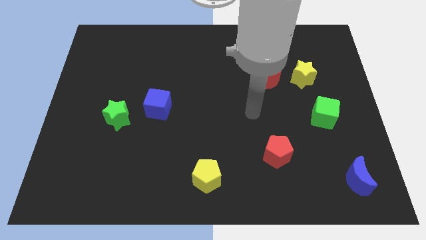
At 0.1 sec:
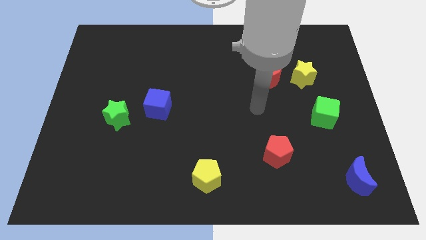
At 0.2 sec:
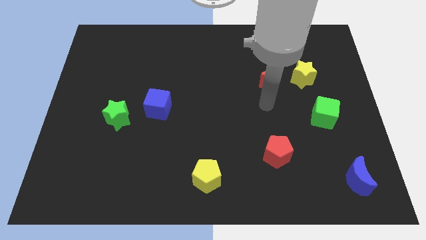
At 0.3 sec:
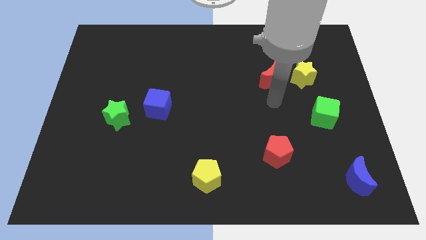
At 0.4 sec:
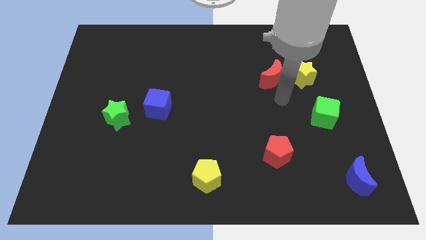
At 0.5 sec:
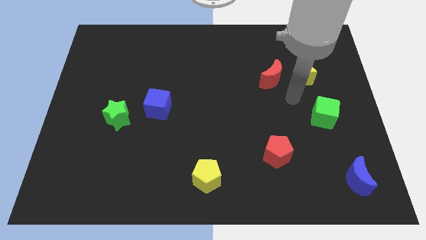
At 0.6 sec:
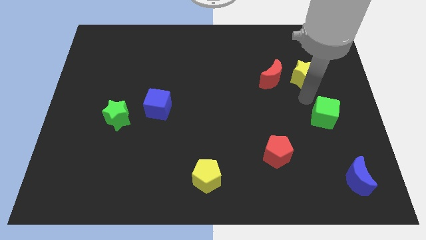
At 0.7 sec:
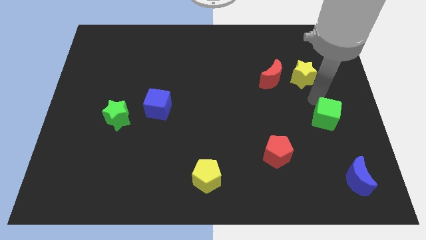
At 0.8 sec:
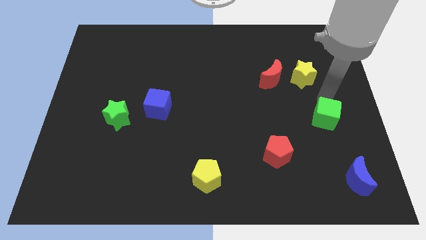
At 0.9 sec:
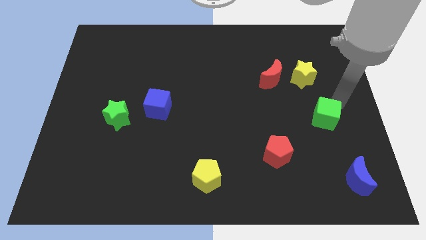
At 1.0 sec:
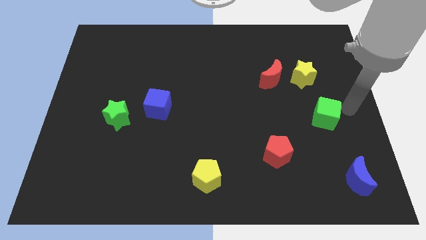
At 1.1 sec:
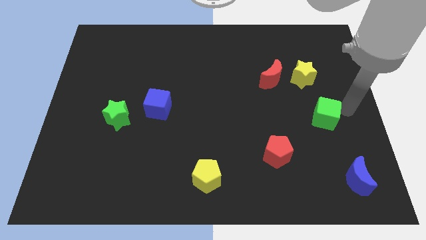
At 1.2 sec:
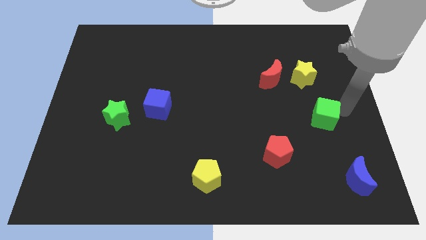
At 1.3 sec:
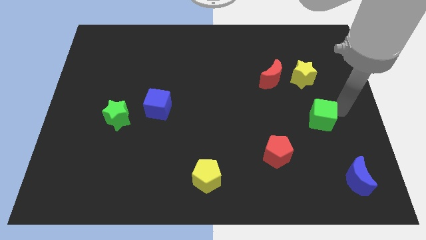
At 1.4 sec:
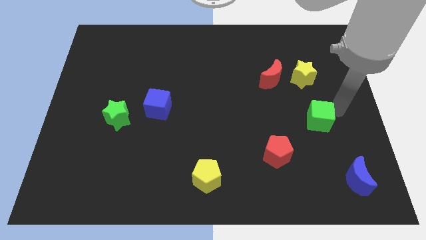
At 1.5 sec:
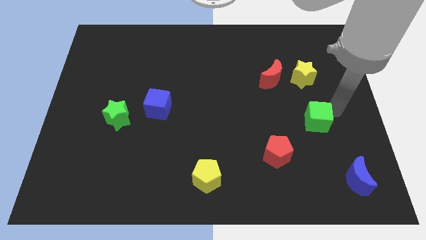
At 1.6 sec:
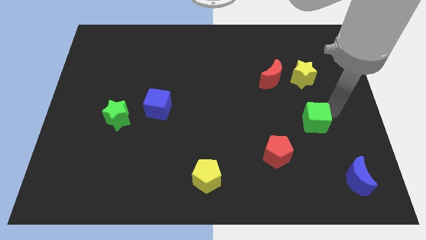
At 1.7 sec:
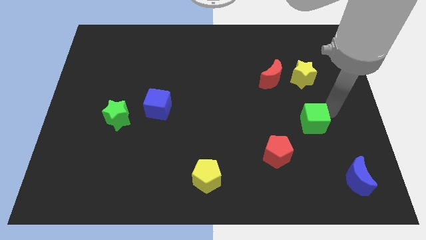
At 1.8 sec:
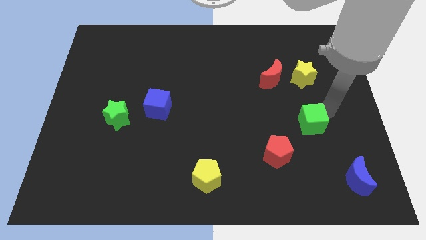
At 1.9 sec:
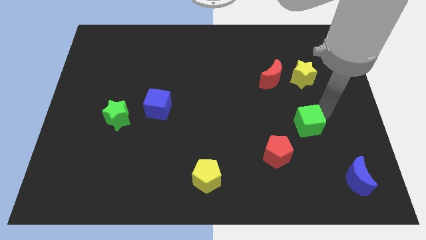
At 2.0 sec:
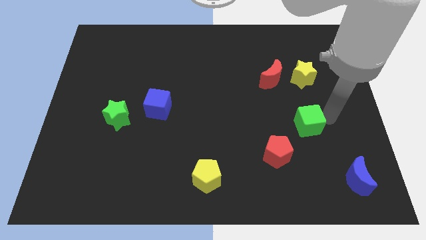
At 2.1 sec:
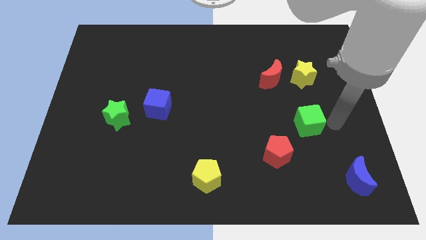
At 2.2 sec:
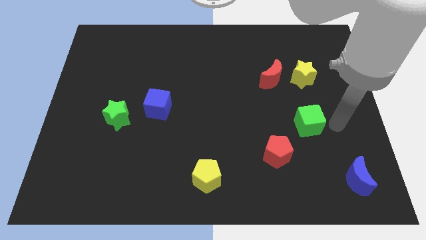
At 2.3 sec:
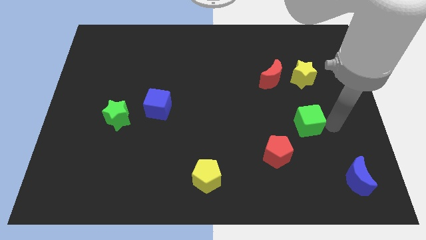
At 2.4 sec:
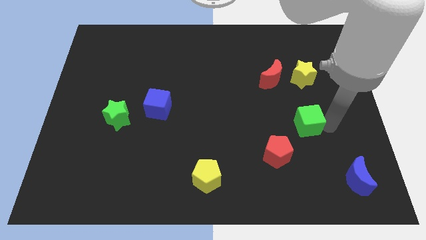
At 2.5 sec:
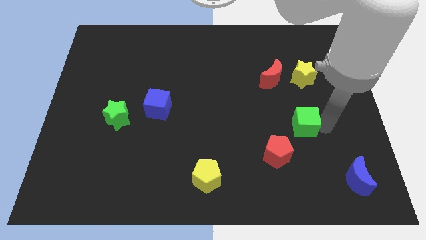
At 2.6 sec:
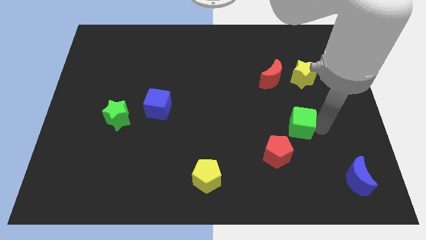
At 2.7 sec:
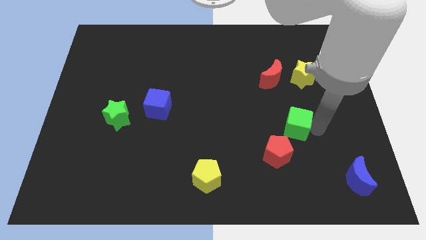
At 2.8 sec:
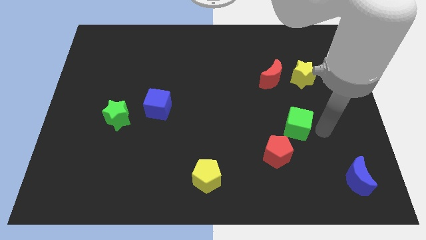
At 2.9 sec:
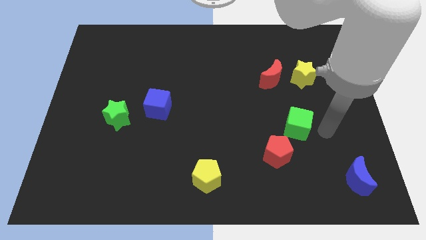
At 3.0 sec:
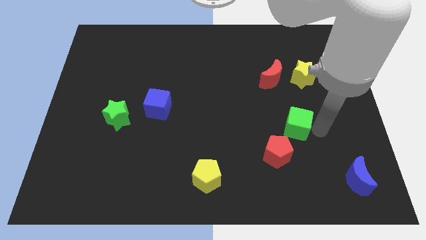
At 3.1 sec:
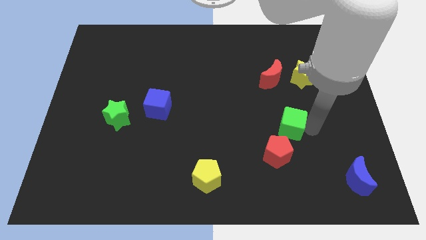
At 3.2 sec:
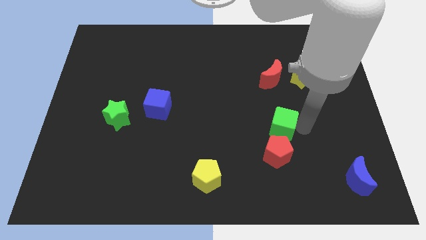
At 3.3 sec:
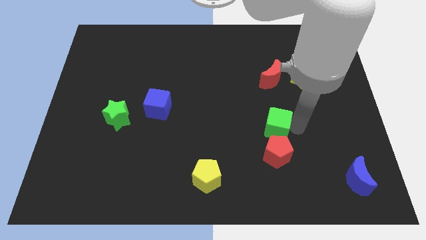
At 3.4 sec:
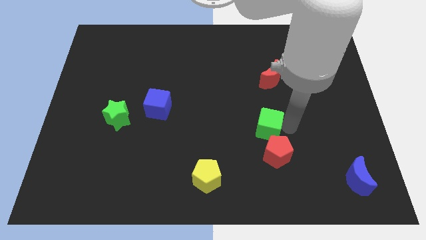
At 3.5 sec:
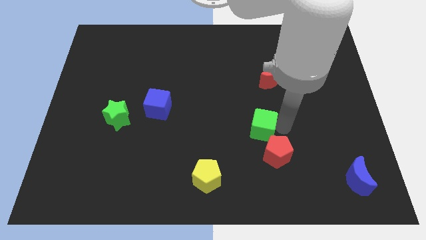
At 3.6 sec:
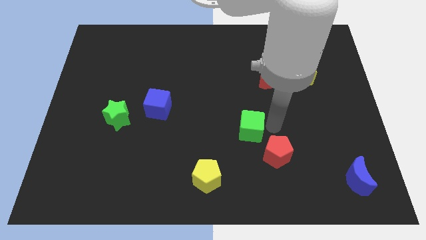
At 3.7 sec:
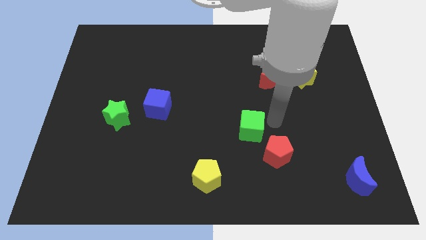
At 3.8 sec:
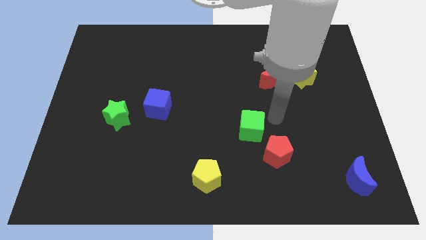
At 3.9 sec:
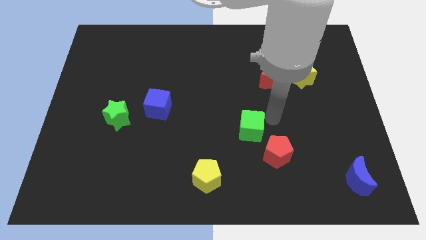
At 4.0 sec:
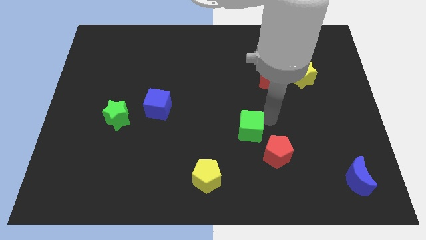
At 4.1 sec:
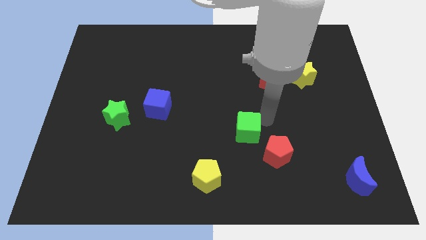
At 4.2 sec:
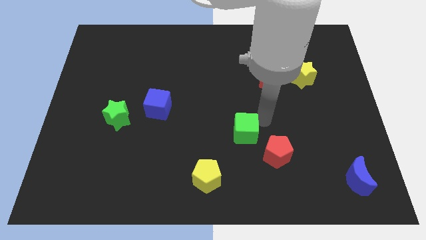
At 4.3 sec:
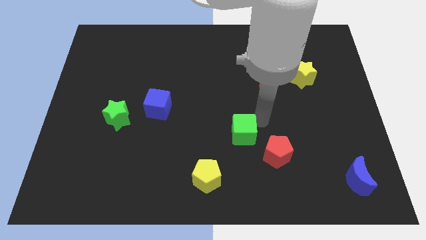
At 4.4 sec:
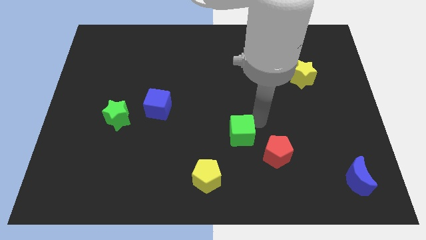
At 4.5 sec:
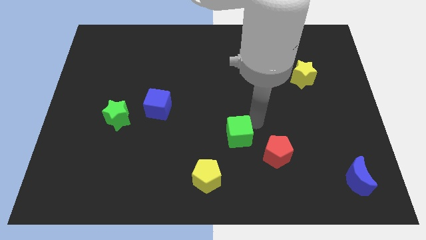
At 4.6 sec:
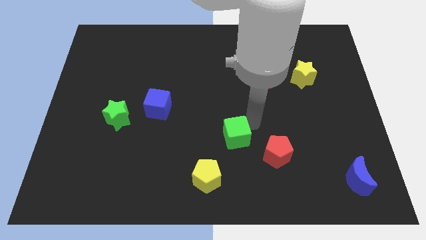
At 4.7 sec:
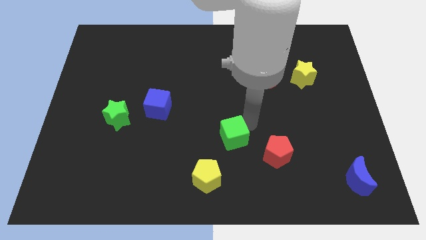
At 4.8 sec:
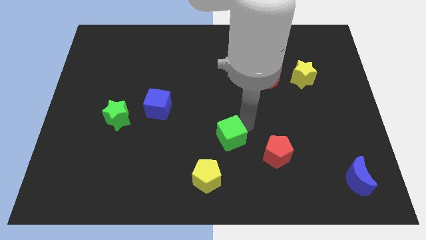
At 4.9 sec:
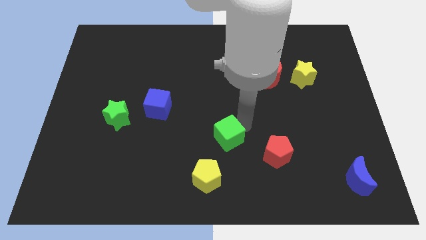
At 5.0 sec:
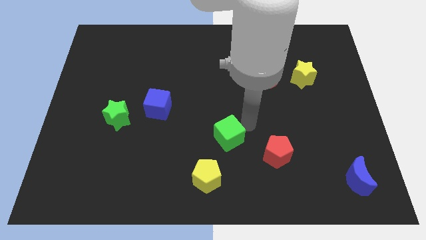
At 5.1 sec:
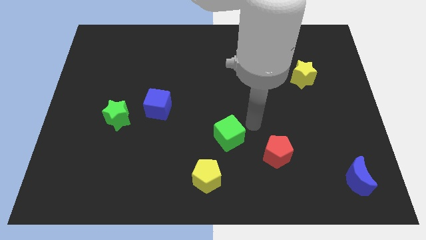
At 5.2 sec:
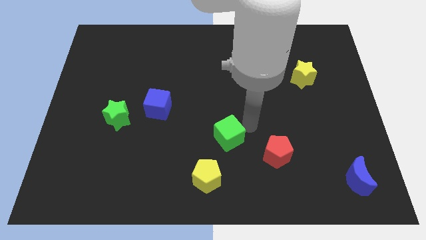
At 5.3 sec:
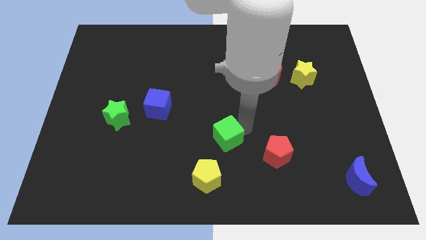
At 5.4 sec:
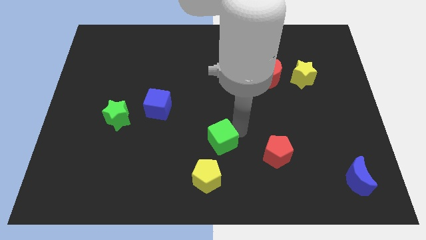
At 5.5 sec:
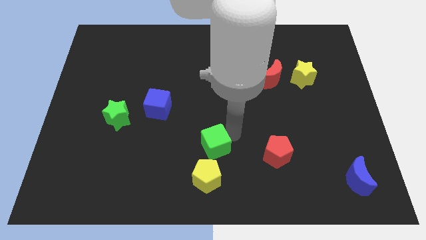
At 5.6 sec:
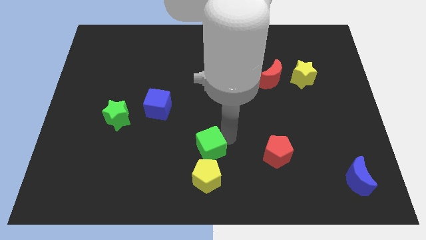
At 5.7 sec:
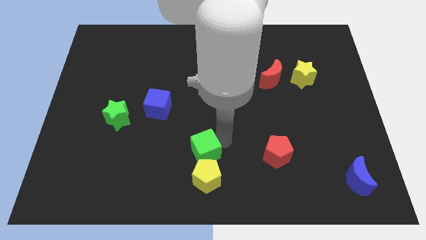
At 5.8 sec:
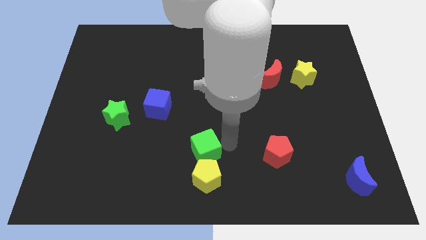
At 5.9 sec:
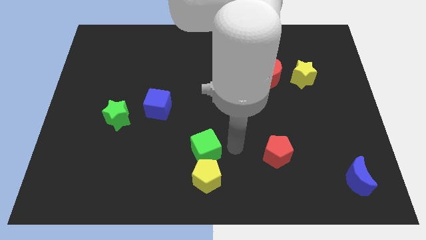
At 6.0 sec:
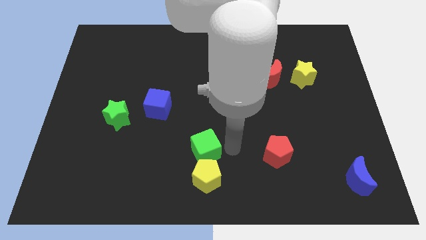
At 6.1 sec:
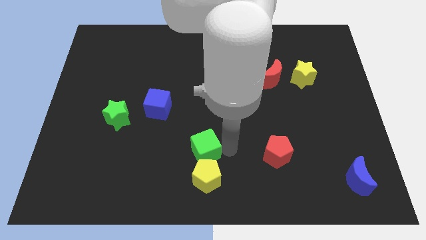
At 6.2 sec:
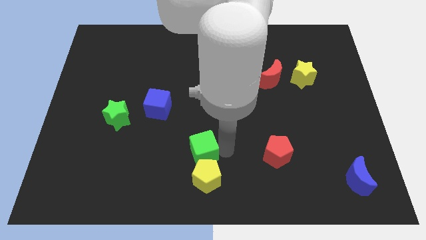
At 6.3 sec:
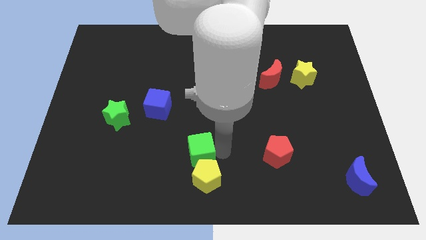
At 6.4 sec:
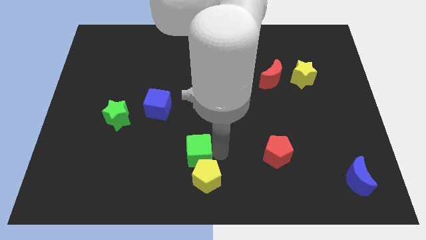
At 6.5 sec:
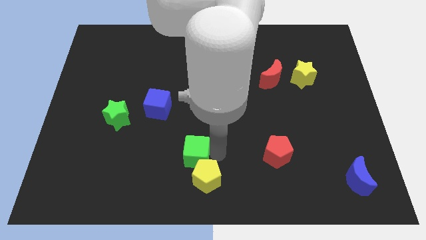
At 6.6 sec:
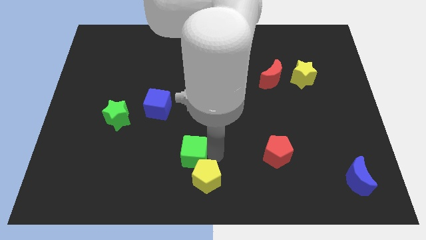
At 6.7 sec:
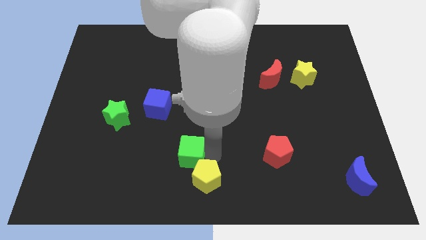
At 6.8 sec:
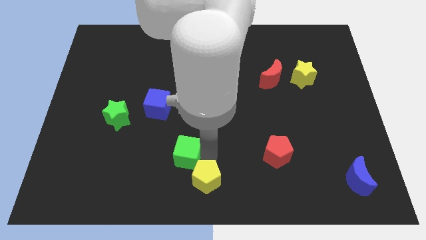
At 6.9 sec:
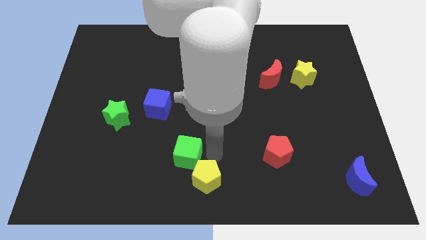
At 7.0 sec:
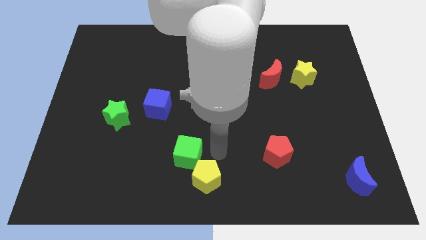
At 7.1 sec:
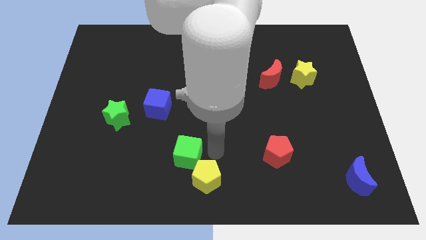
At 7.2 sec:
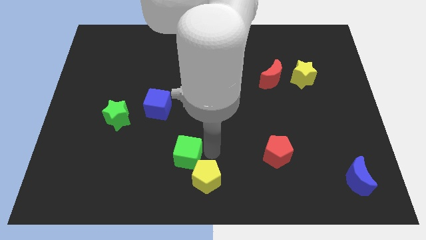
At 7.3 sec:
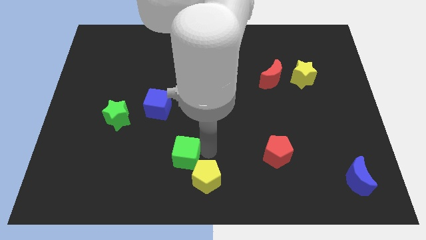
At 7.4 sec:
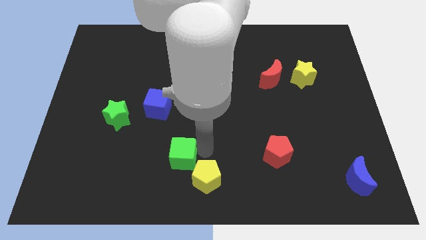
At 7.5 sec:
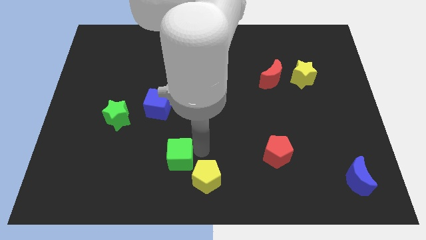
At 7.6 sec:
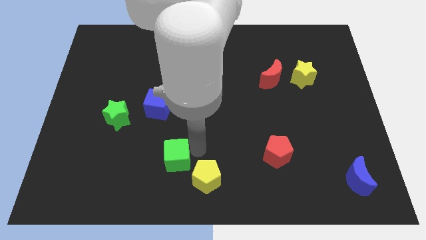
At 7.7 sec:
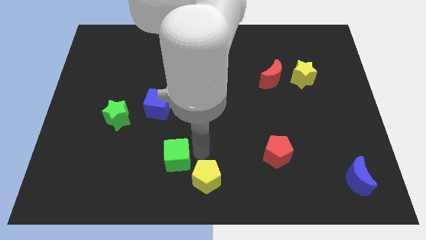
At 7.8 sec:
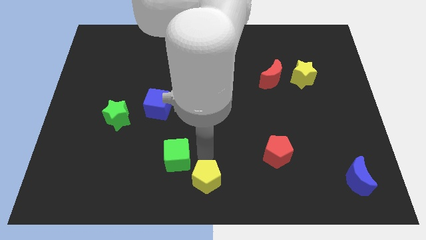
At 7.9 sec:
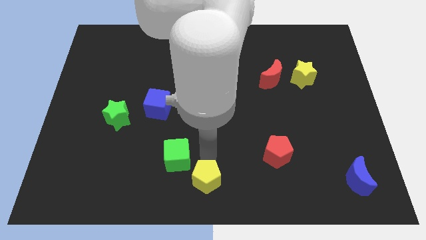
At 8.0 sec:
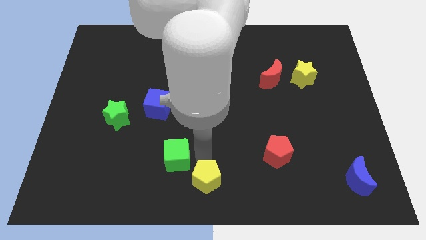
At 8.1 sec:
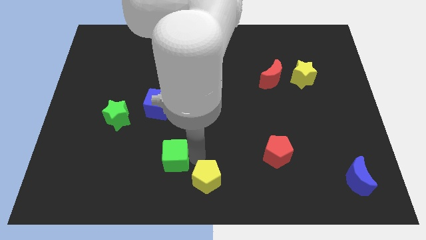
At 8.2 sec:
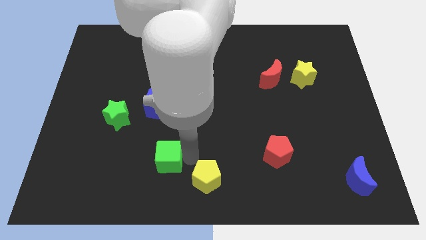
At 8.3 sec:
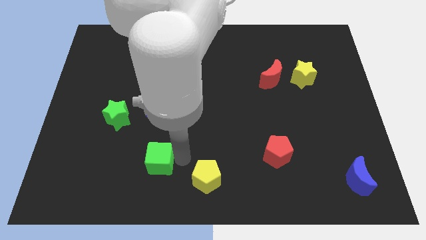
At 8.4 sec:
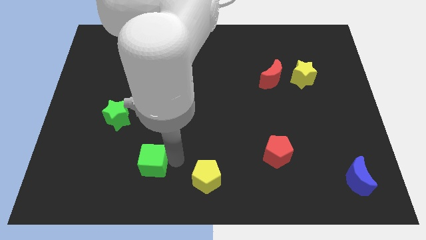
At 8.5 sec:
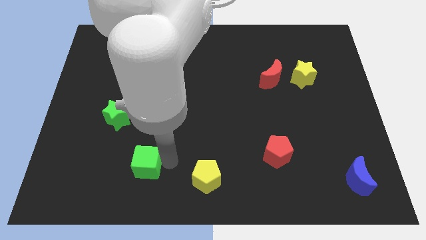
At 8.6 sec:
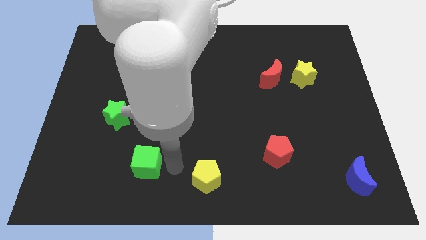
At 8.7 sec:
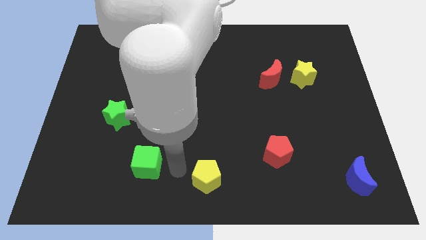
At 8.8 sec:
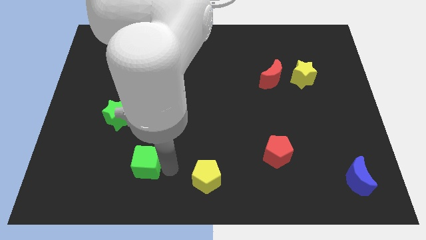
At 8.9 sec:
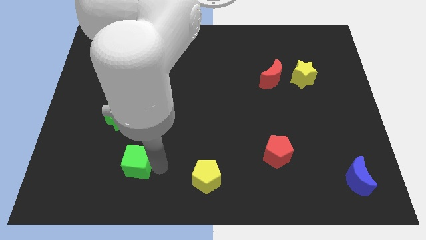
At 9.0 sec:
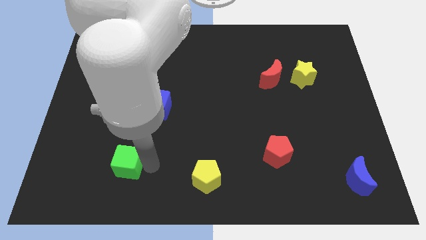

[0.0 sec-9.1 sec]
slide the green cube to the bottom of the green star
